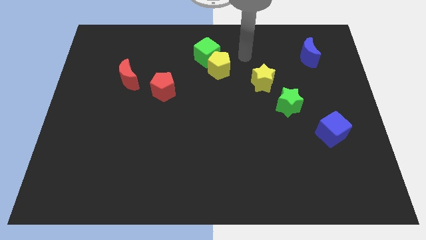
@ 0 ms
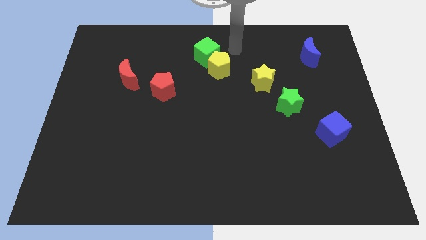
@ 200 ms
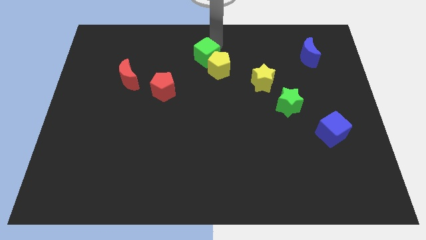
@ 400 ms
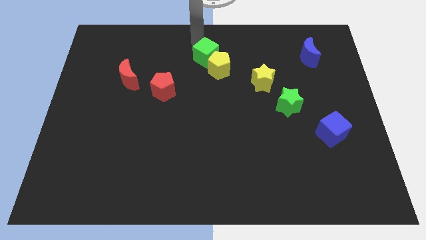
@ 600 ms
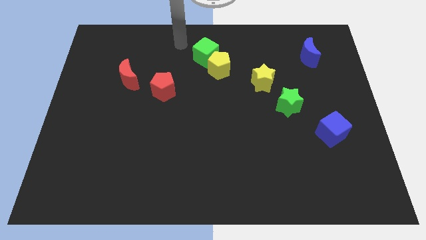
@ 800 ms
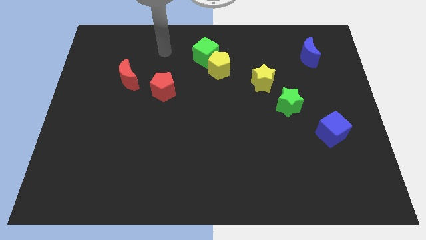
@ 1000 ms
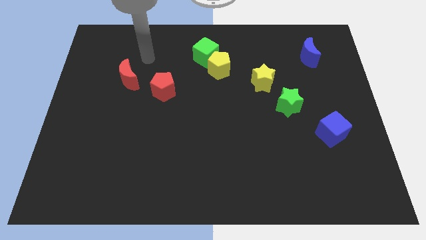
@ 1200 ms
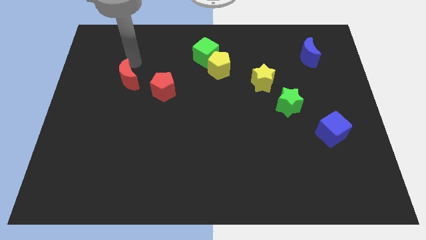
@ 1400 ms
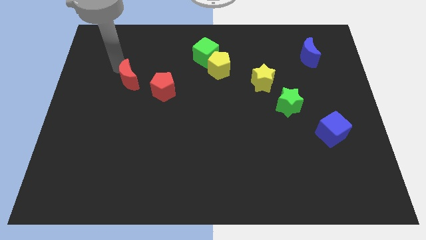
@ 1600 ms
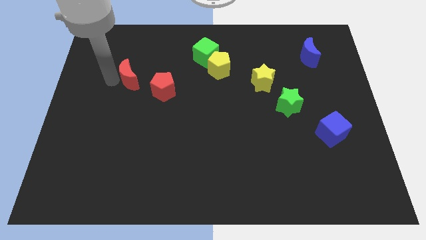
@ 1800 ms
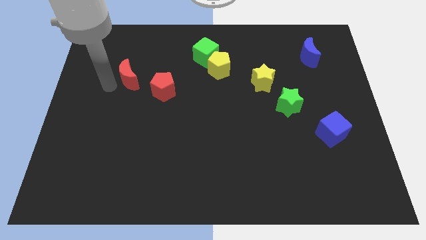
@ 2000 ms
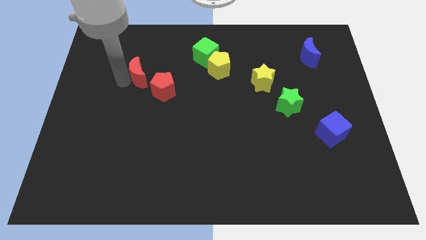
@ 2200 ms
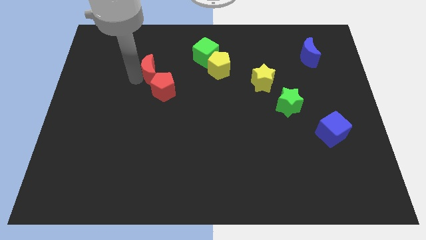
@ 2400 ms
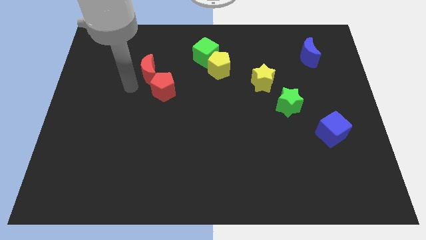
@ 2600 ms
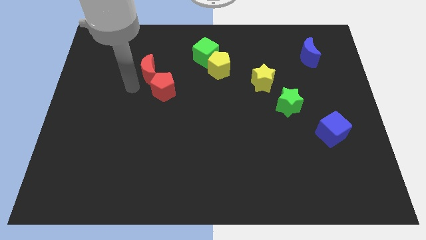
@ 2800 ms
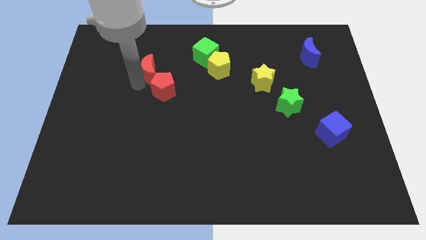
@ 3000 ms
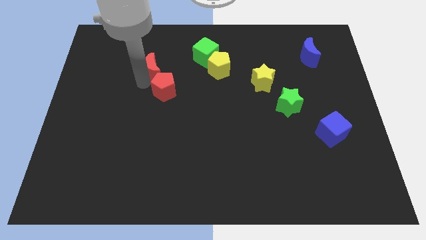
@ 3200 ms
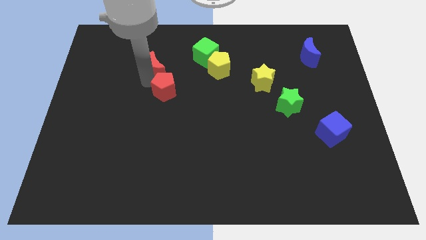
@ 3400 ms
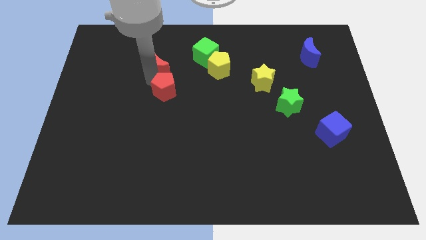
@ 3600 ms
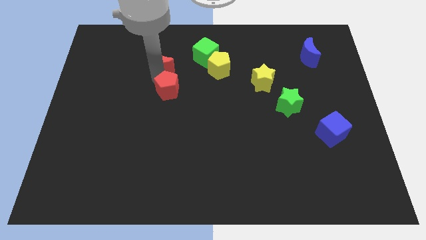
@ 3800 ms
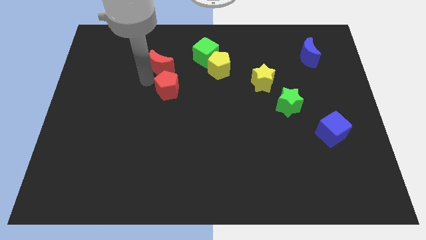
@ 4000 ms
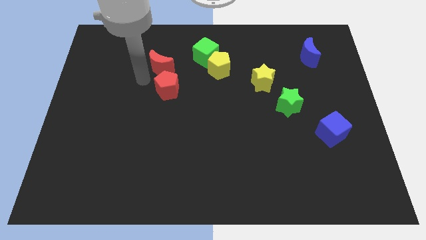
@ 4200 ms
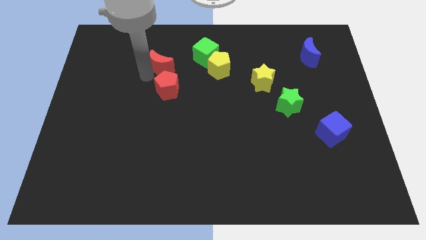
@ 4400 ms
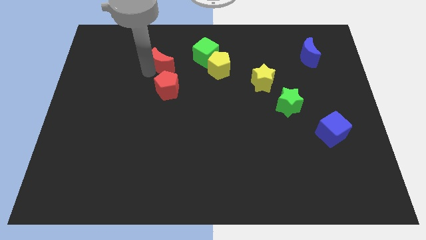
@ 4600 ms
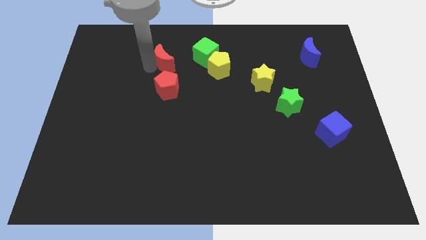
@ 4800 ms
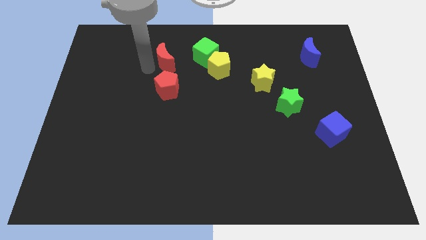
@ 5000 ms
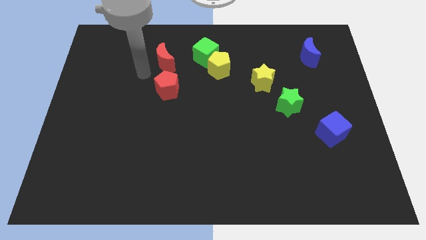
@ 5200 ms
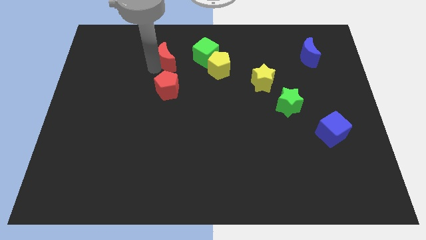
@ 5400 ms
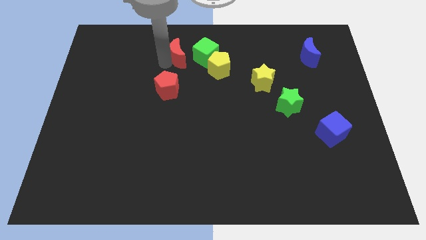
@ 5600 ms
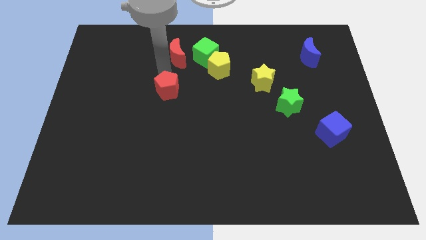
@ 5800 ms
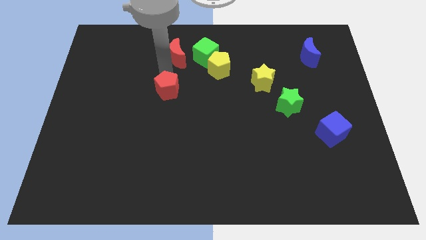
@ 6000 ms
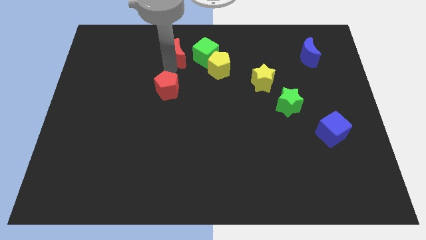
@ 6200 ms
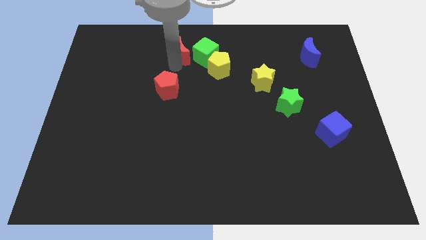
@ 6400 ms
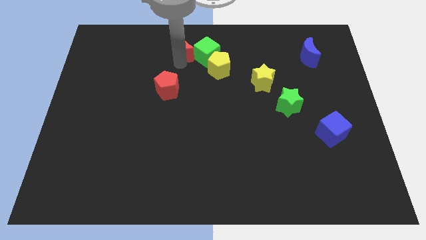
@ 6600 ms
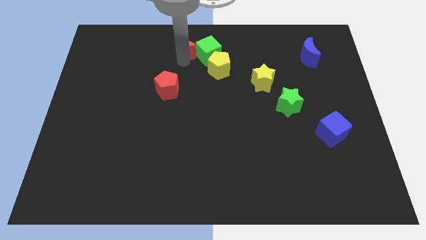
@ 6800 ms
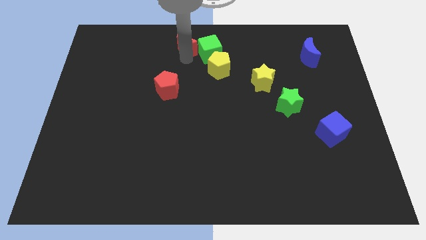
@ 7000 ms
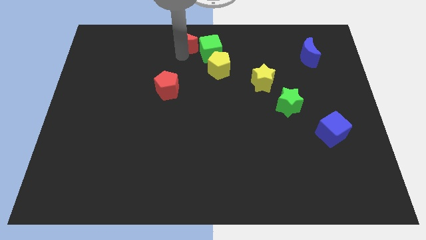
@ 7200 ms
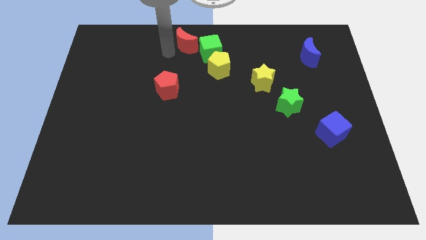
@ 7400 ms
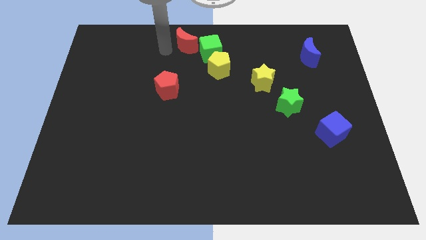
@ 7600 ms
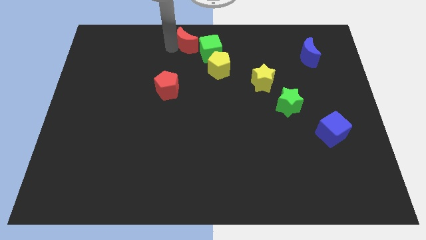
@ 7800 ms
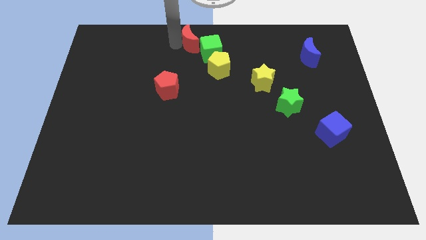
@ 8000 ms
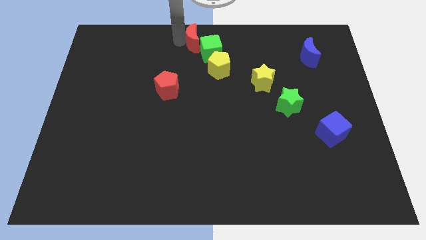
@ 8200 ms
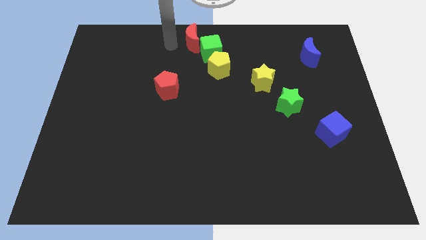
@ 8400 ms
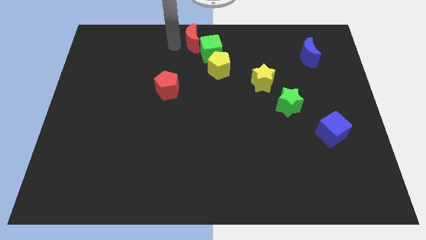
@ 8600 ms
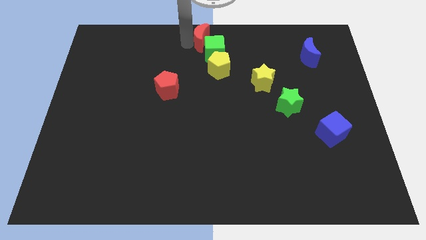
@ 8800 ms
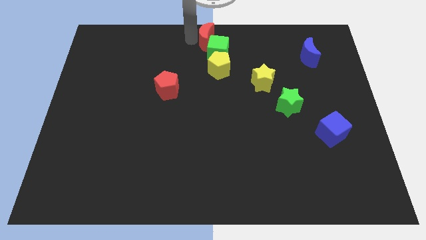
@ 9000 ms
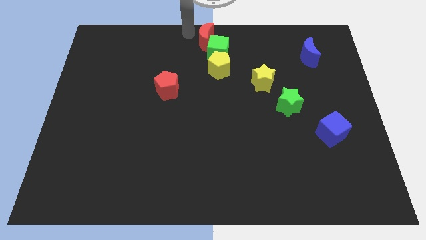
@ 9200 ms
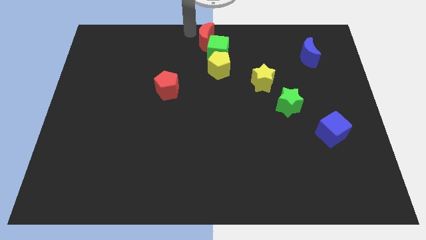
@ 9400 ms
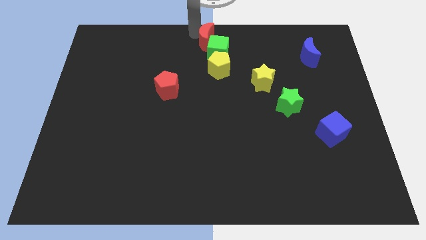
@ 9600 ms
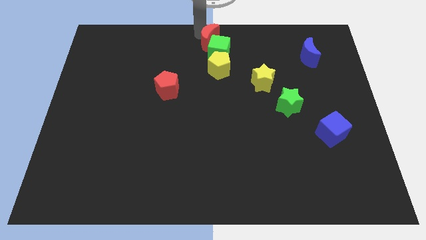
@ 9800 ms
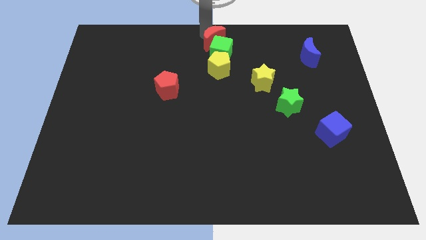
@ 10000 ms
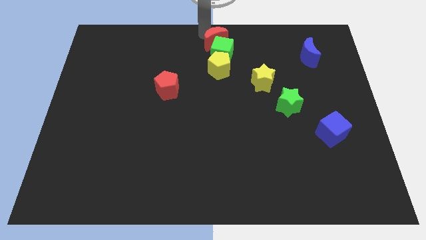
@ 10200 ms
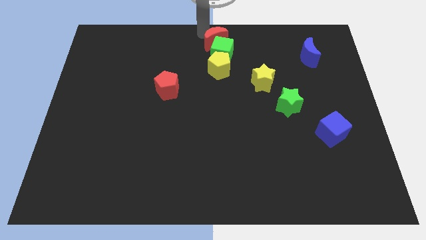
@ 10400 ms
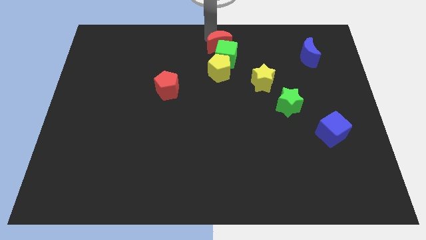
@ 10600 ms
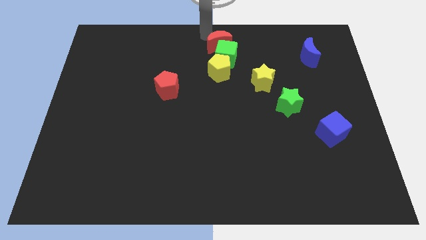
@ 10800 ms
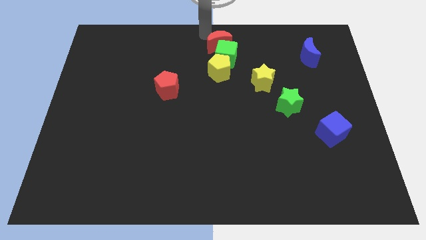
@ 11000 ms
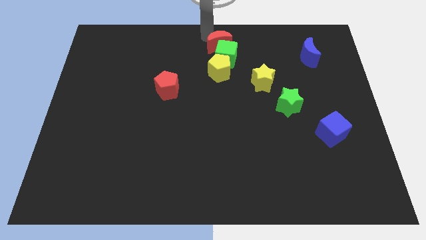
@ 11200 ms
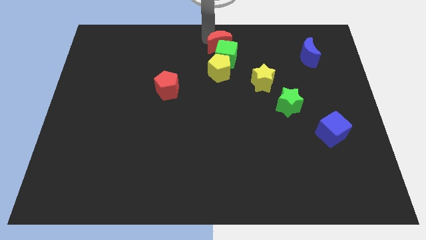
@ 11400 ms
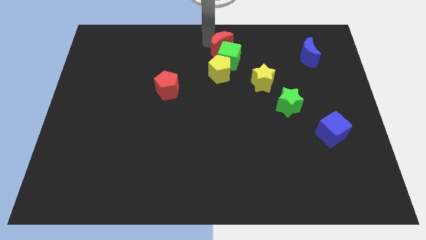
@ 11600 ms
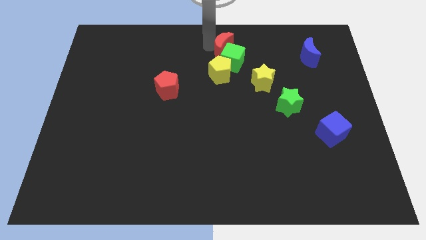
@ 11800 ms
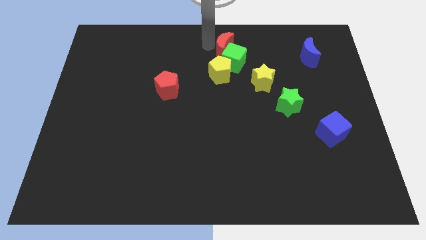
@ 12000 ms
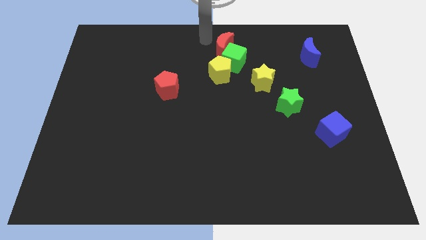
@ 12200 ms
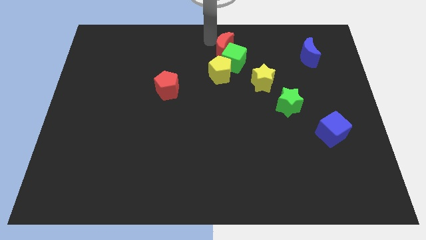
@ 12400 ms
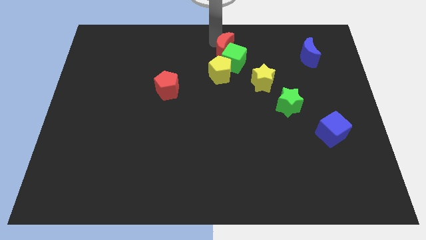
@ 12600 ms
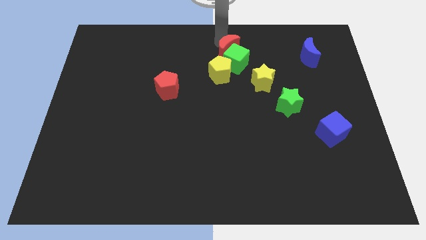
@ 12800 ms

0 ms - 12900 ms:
move the red moon to the top right side of the yellow pentagon
